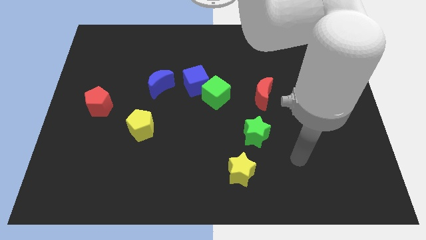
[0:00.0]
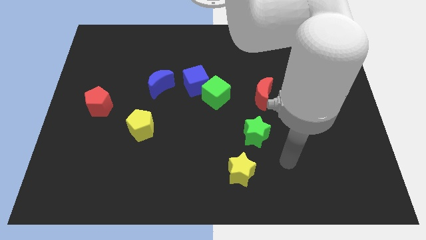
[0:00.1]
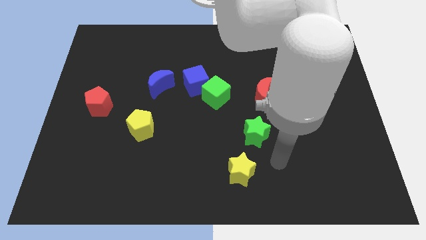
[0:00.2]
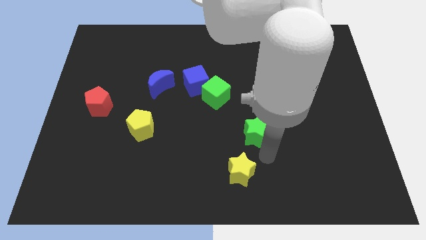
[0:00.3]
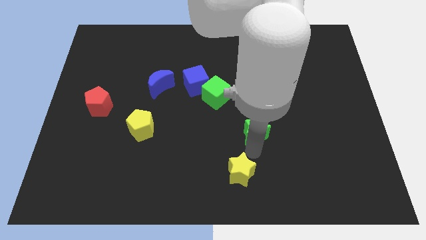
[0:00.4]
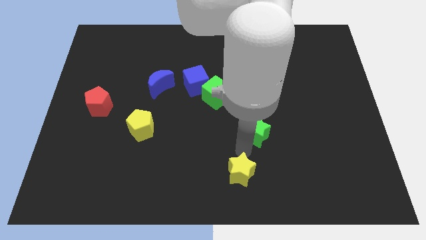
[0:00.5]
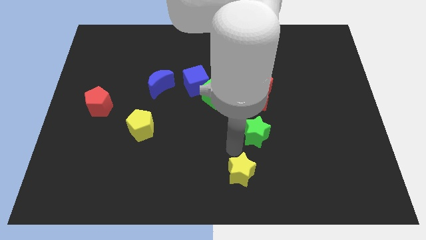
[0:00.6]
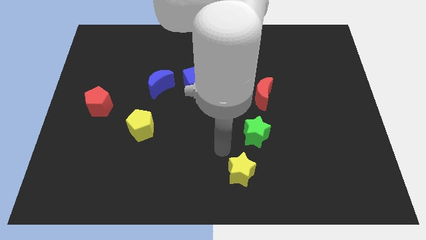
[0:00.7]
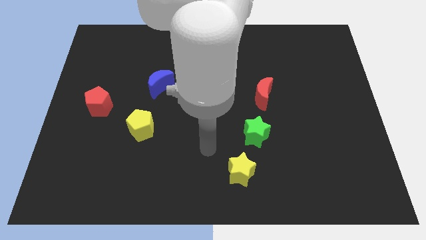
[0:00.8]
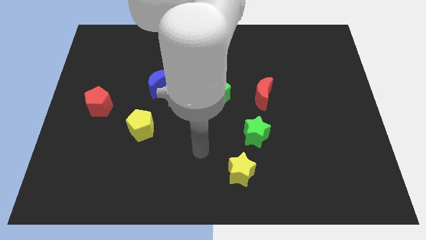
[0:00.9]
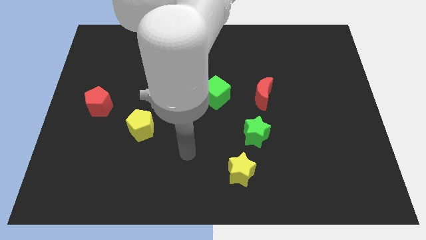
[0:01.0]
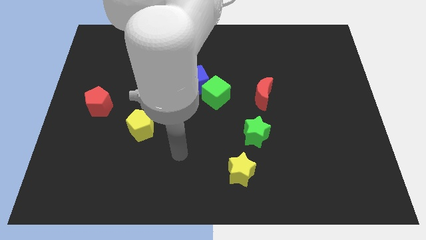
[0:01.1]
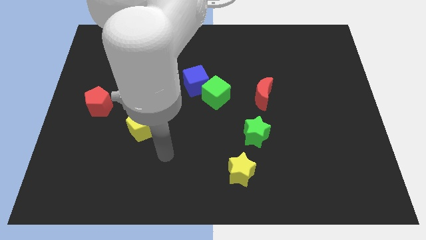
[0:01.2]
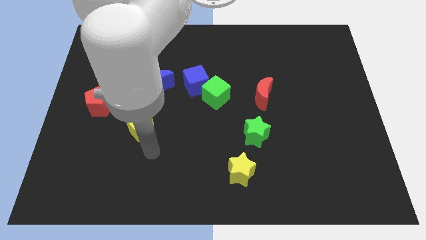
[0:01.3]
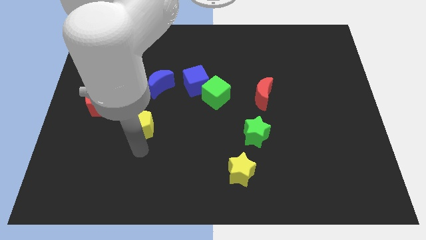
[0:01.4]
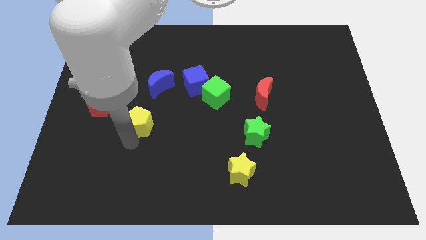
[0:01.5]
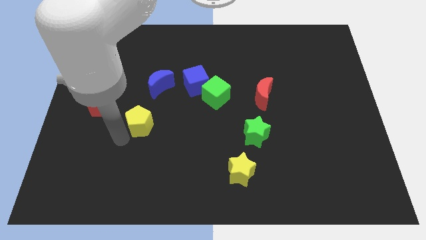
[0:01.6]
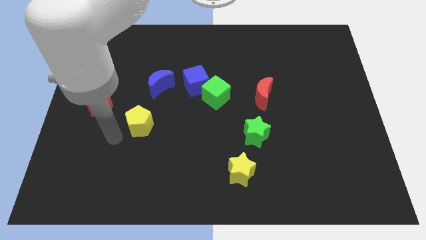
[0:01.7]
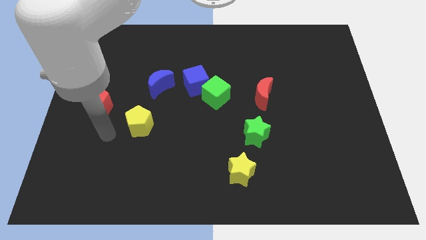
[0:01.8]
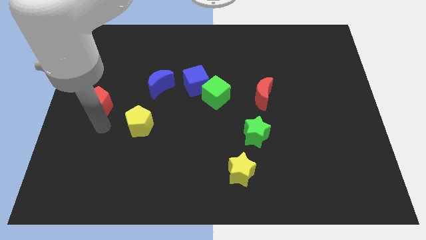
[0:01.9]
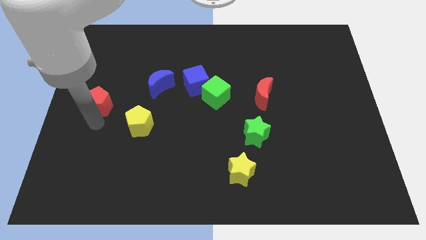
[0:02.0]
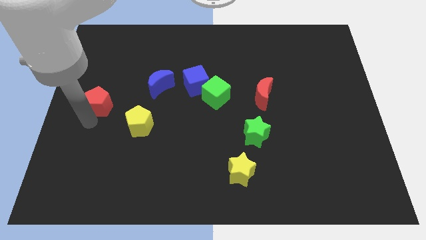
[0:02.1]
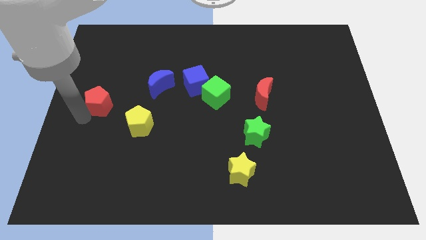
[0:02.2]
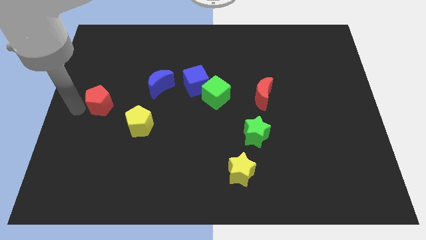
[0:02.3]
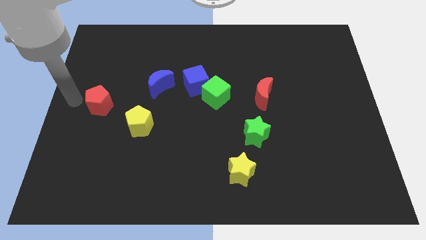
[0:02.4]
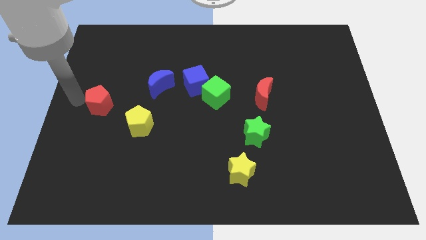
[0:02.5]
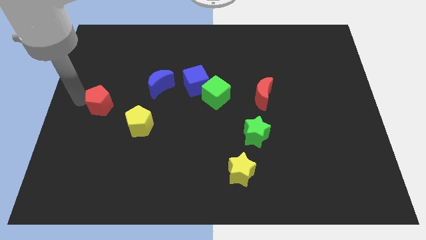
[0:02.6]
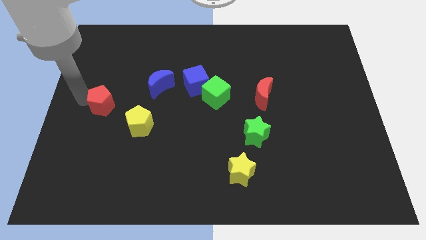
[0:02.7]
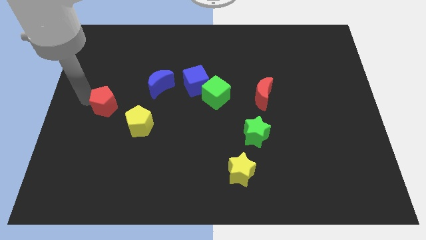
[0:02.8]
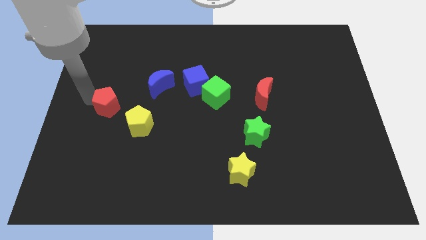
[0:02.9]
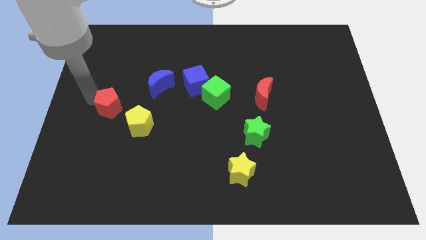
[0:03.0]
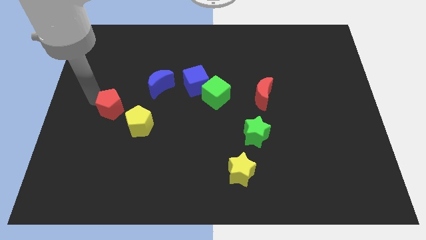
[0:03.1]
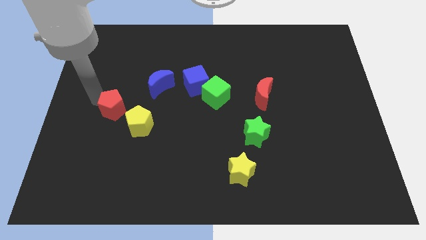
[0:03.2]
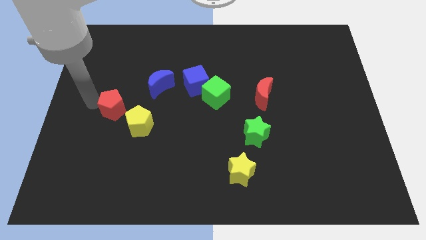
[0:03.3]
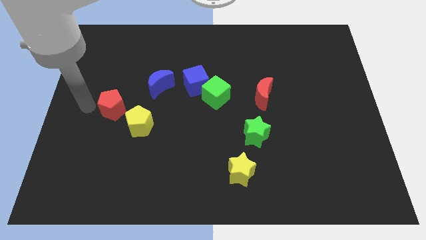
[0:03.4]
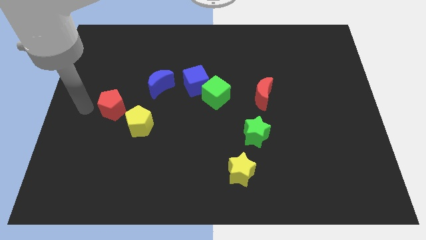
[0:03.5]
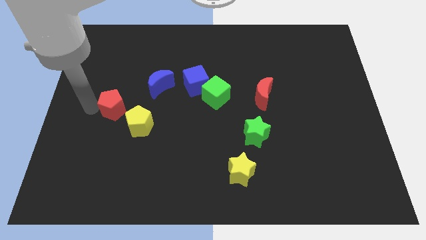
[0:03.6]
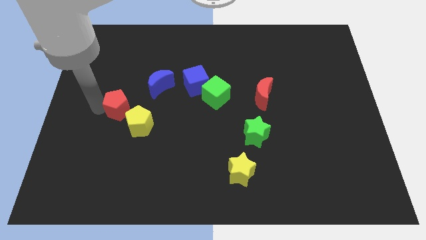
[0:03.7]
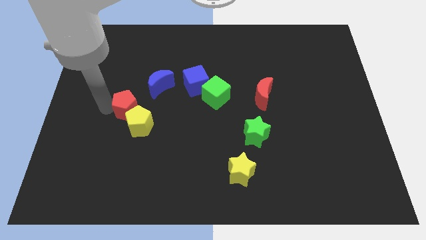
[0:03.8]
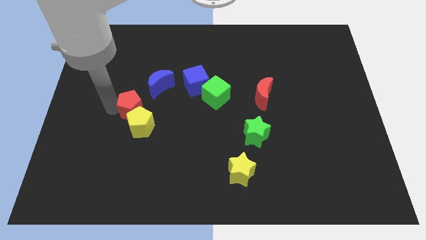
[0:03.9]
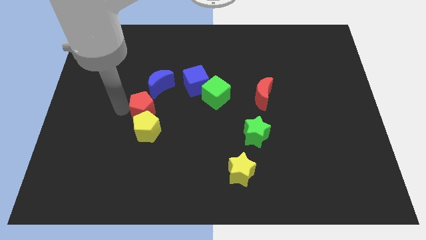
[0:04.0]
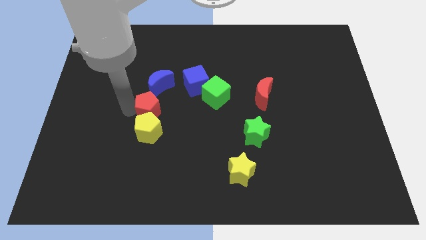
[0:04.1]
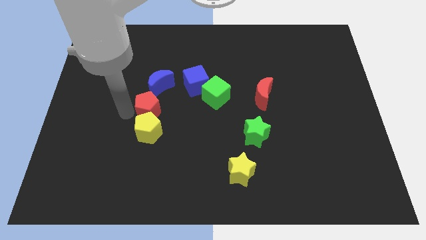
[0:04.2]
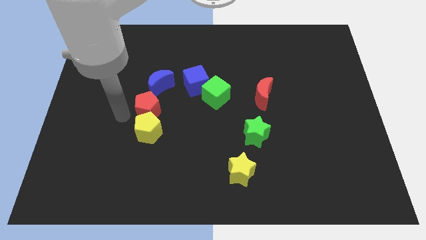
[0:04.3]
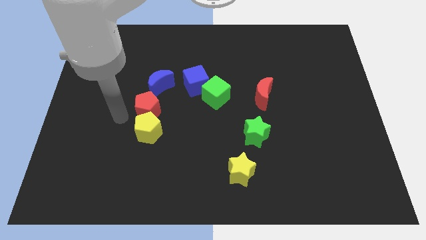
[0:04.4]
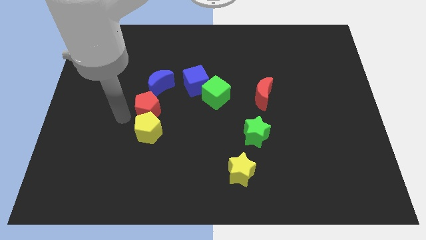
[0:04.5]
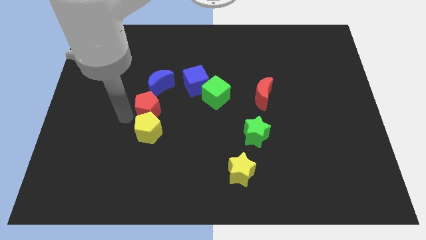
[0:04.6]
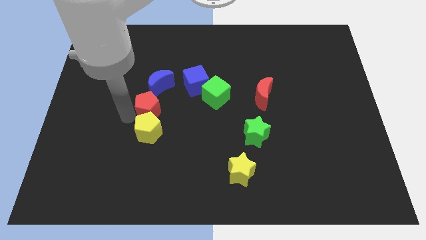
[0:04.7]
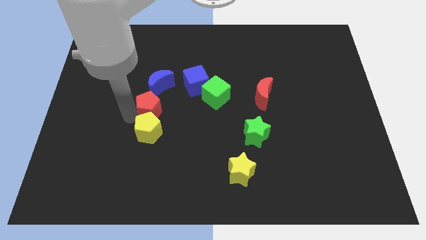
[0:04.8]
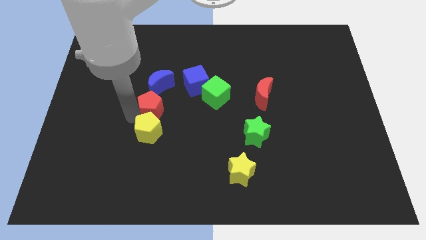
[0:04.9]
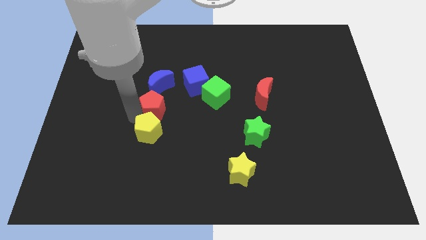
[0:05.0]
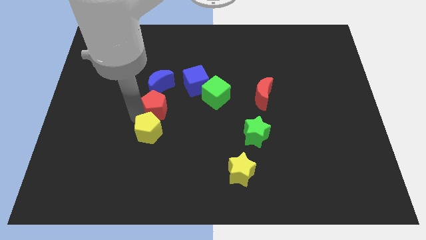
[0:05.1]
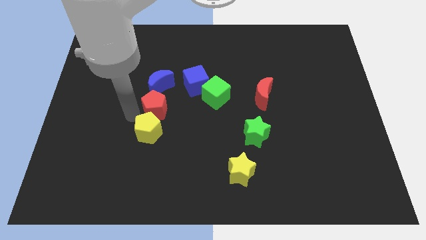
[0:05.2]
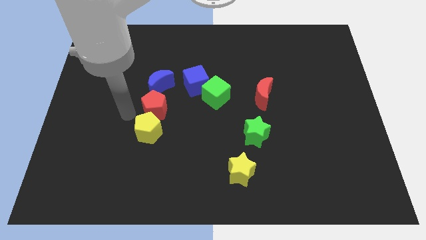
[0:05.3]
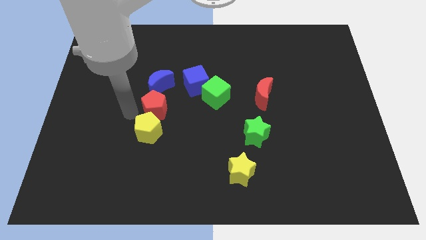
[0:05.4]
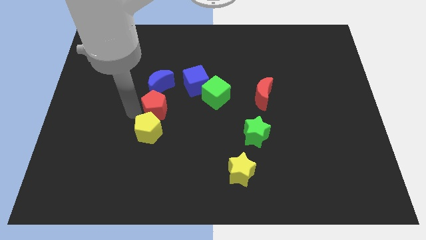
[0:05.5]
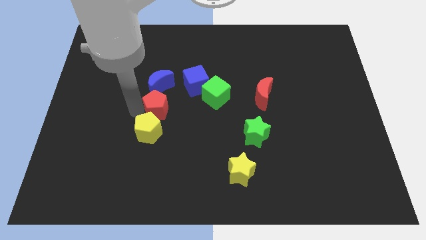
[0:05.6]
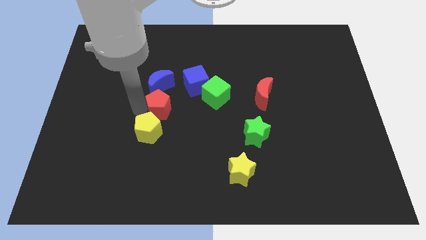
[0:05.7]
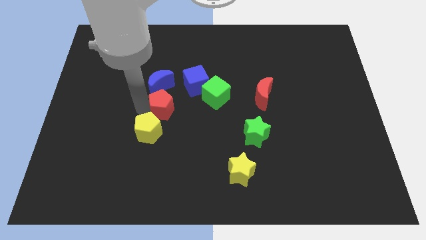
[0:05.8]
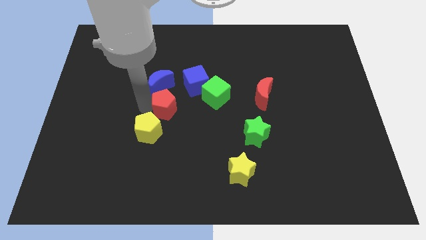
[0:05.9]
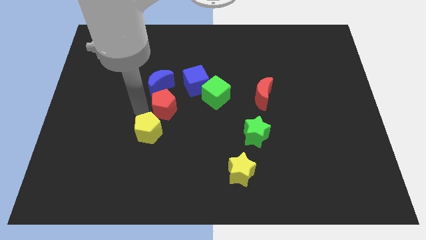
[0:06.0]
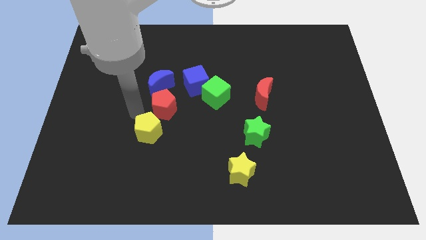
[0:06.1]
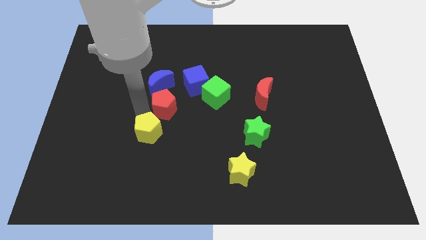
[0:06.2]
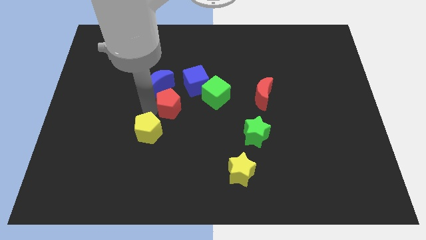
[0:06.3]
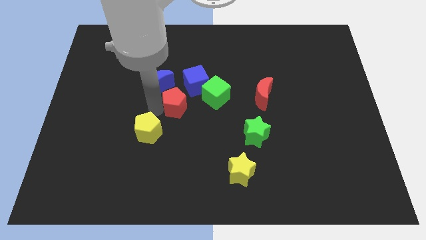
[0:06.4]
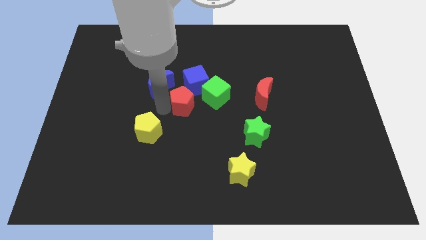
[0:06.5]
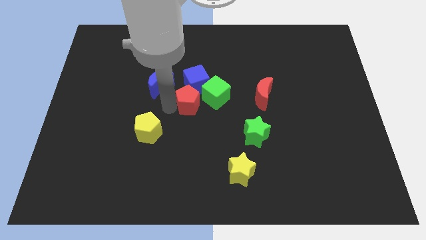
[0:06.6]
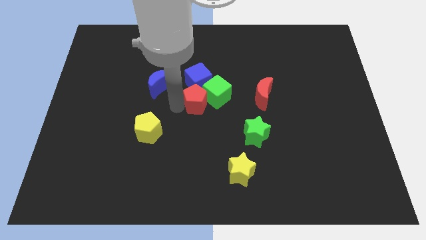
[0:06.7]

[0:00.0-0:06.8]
push the red pentagon next to the green cube
